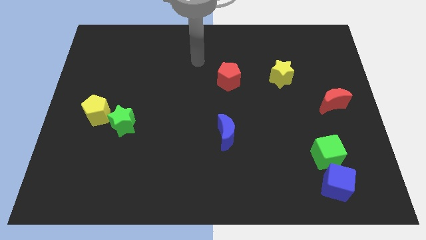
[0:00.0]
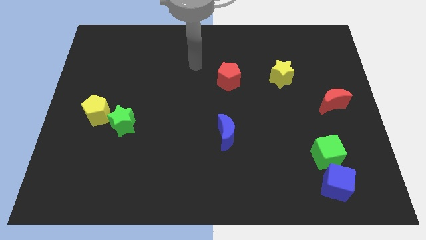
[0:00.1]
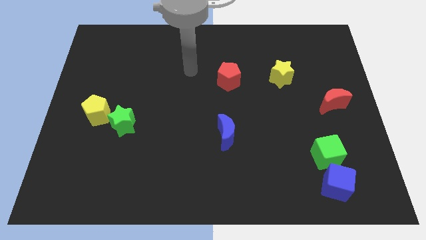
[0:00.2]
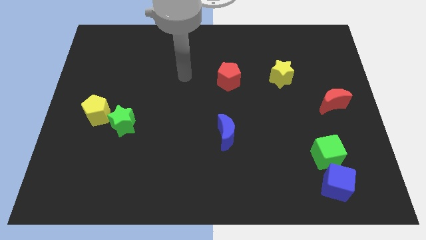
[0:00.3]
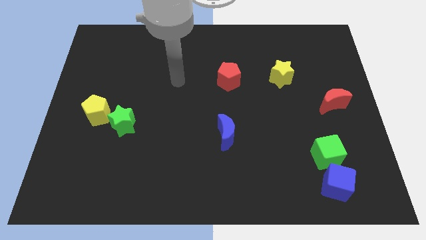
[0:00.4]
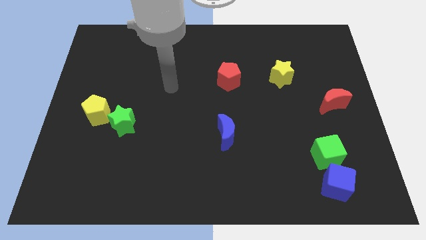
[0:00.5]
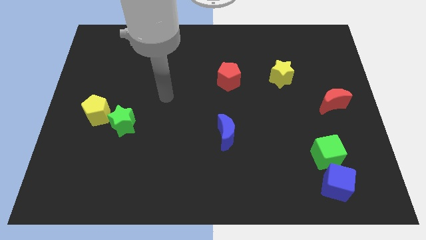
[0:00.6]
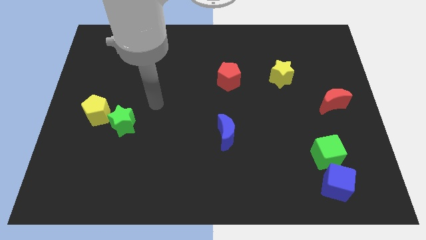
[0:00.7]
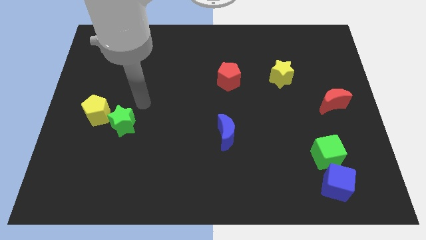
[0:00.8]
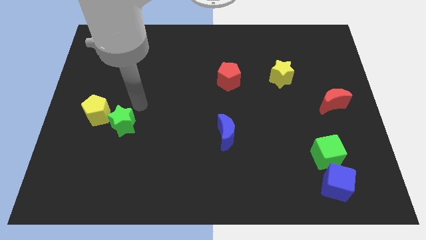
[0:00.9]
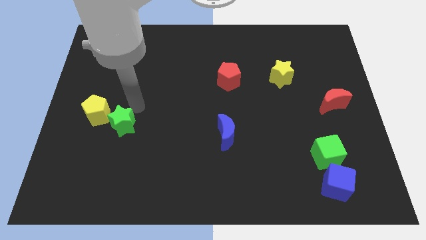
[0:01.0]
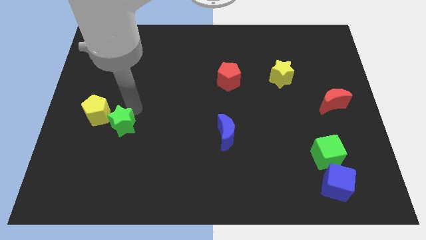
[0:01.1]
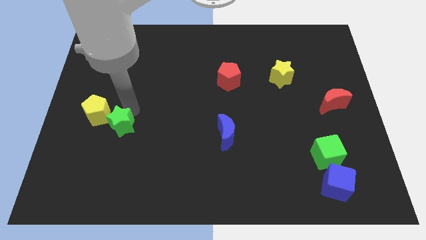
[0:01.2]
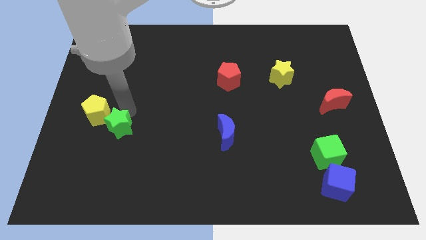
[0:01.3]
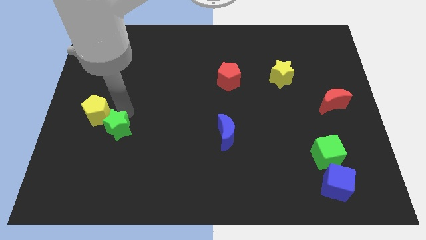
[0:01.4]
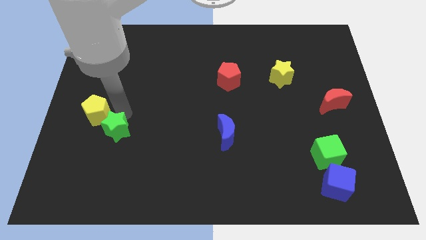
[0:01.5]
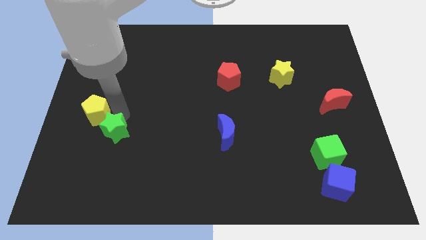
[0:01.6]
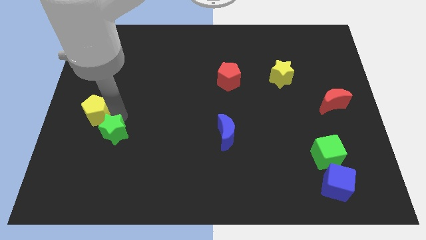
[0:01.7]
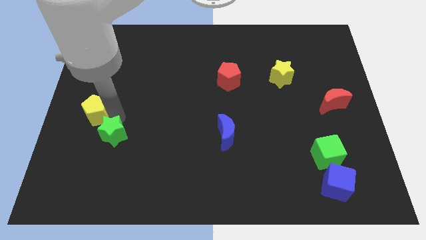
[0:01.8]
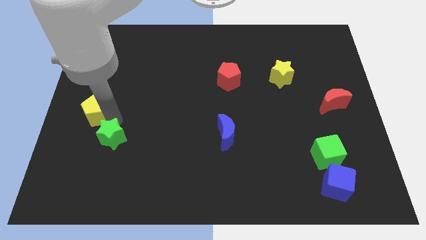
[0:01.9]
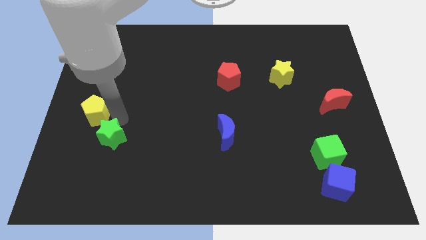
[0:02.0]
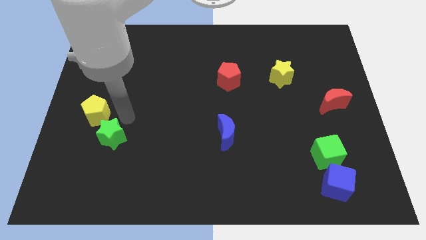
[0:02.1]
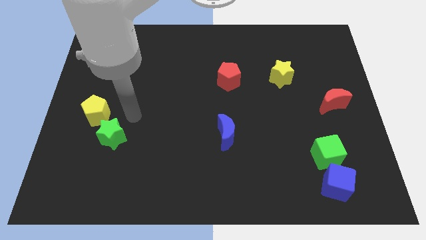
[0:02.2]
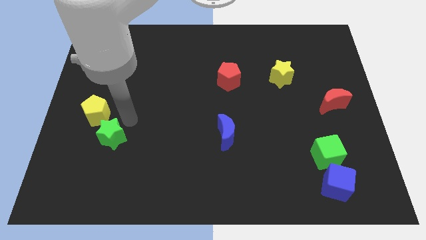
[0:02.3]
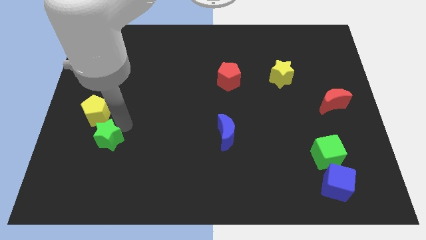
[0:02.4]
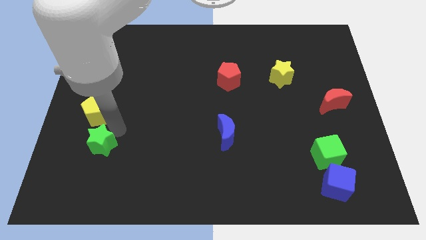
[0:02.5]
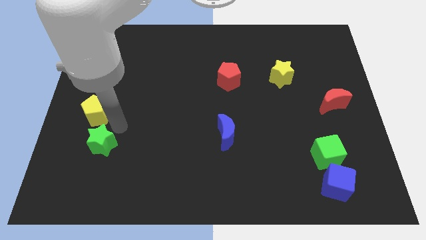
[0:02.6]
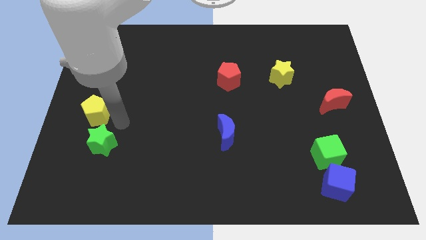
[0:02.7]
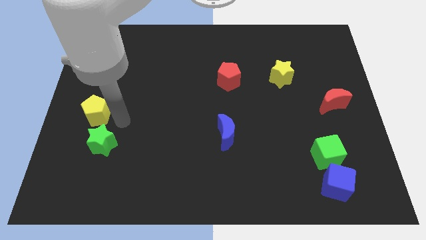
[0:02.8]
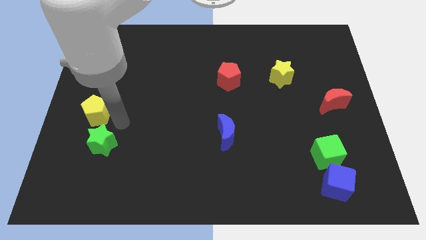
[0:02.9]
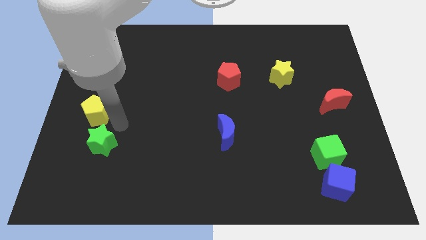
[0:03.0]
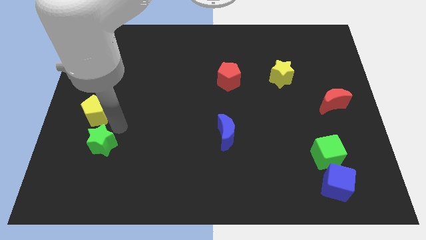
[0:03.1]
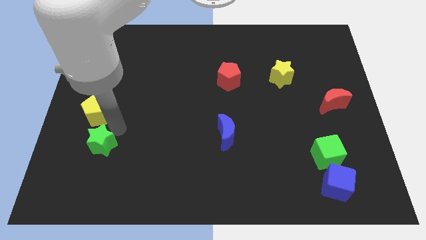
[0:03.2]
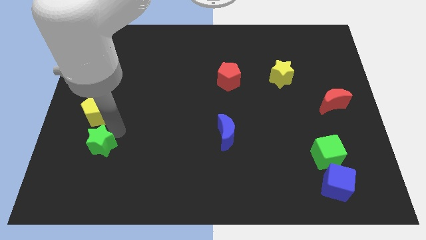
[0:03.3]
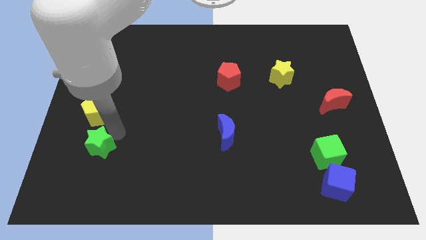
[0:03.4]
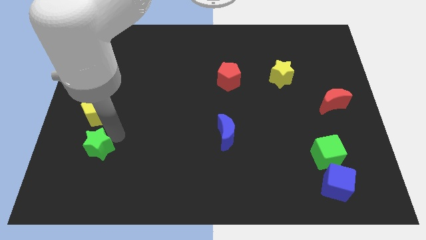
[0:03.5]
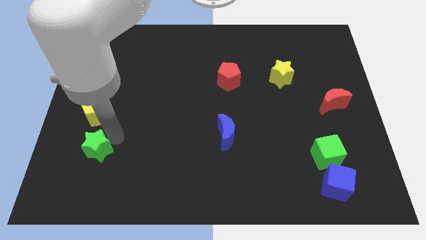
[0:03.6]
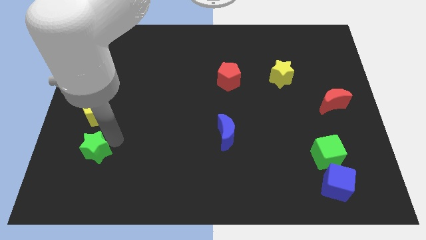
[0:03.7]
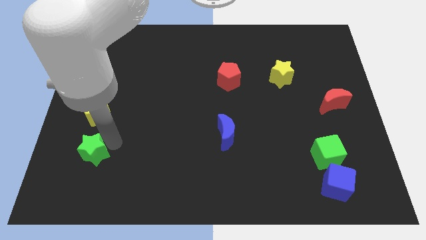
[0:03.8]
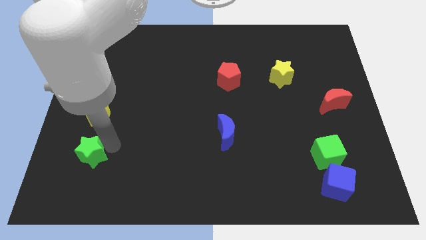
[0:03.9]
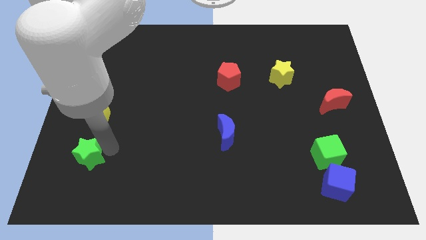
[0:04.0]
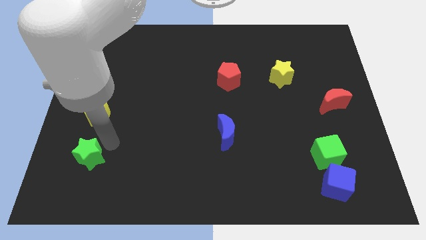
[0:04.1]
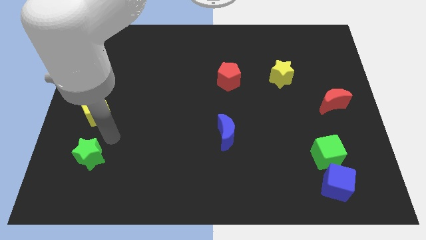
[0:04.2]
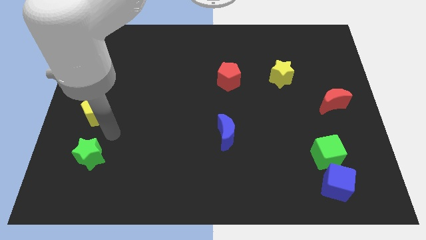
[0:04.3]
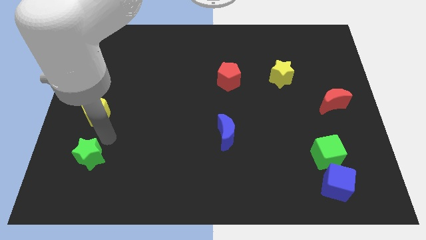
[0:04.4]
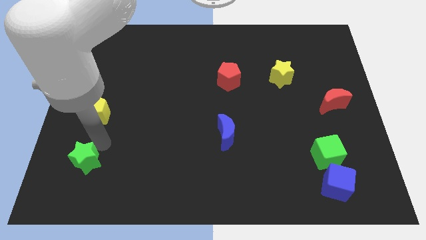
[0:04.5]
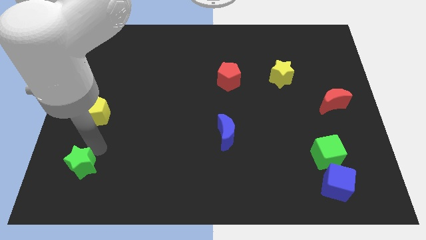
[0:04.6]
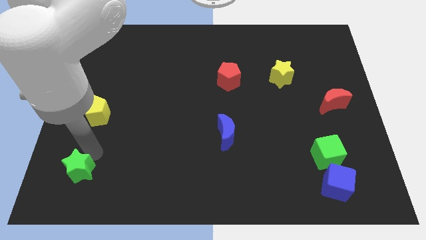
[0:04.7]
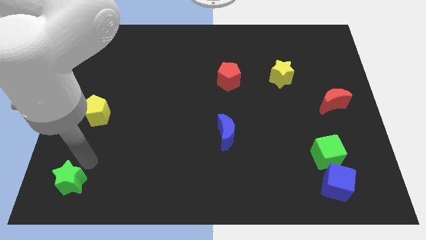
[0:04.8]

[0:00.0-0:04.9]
slide the green star to the bottom left of the board

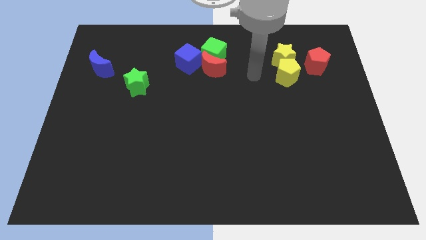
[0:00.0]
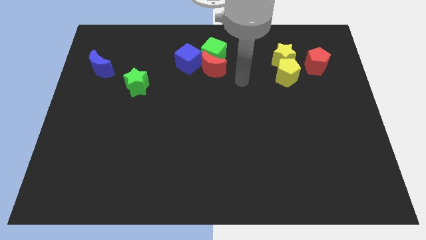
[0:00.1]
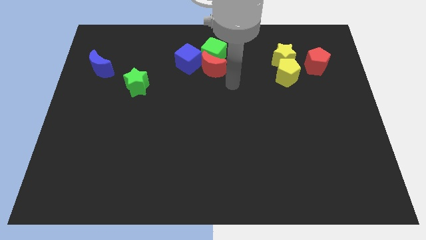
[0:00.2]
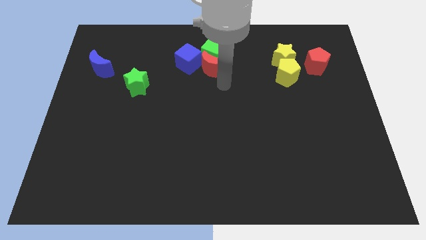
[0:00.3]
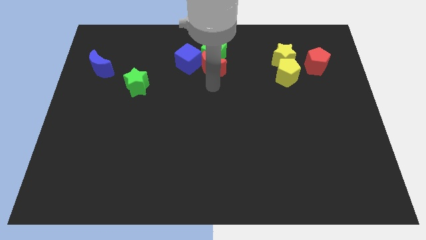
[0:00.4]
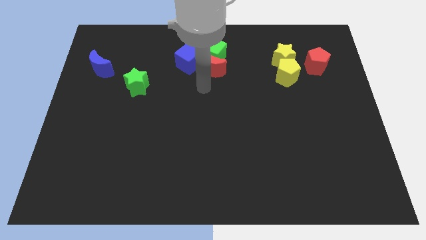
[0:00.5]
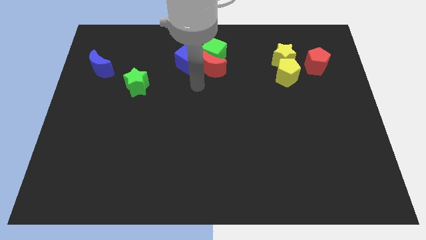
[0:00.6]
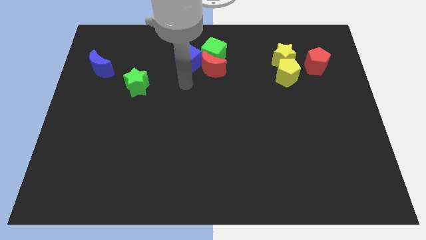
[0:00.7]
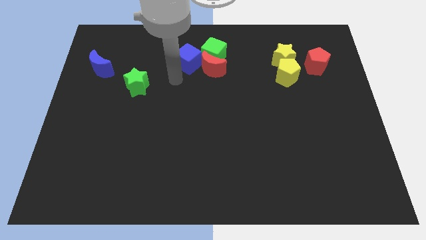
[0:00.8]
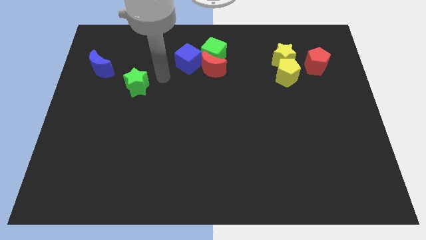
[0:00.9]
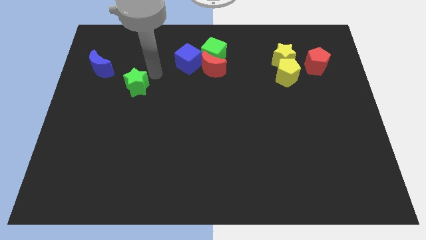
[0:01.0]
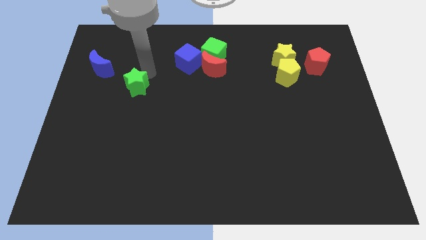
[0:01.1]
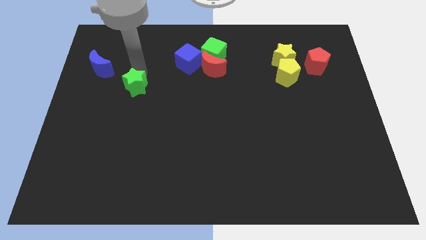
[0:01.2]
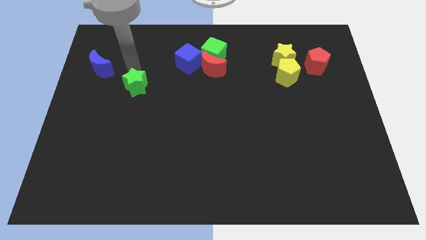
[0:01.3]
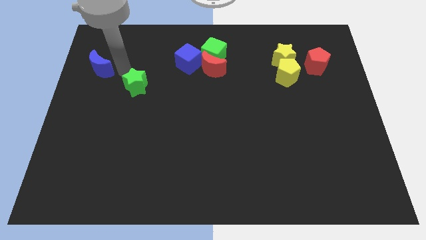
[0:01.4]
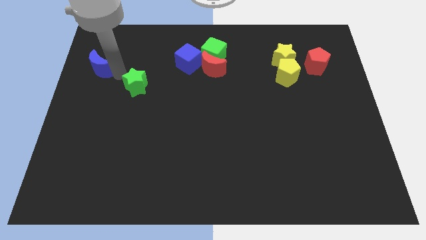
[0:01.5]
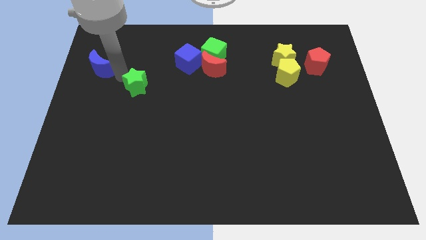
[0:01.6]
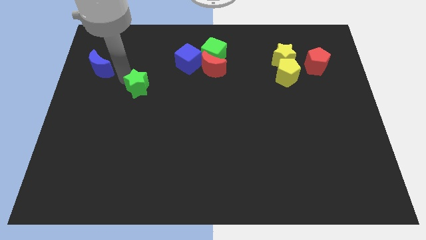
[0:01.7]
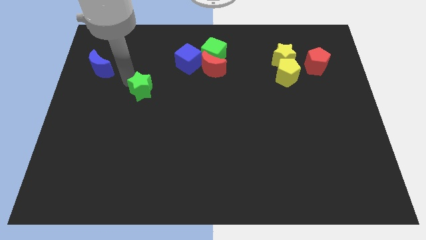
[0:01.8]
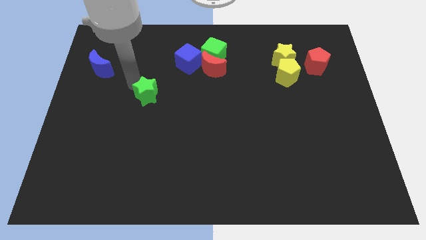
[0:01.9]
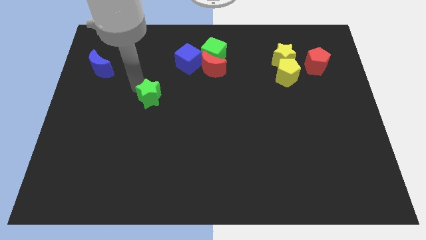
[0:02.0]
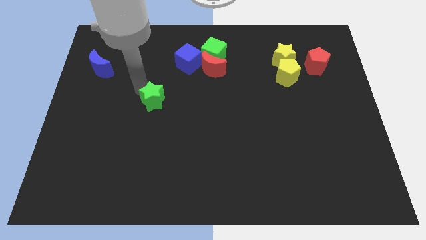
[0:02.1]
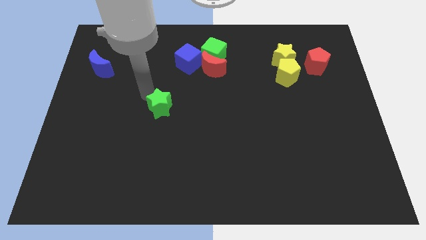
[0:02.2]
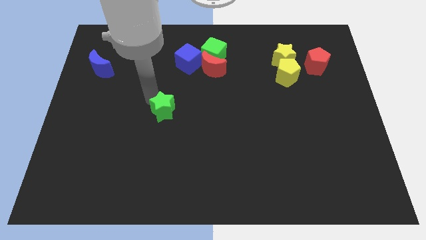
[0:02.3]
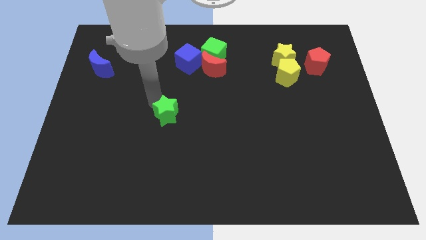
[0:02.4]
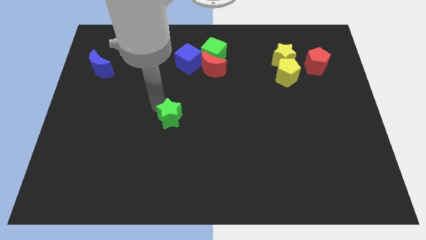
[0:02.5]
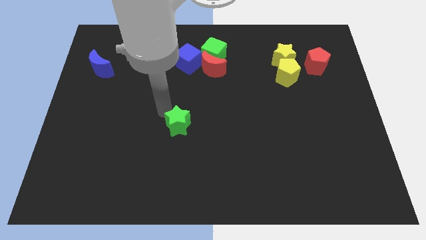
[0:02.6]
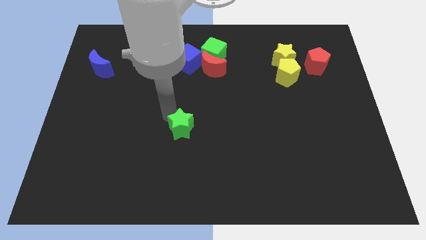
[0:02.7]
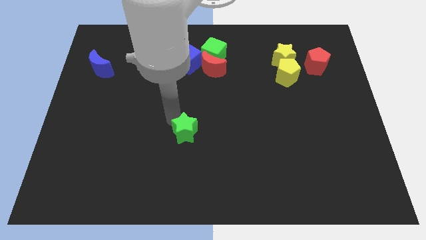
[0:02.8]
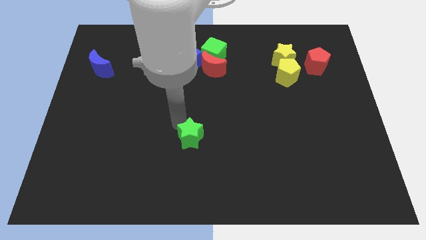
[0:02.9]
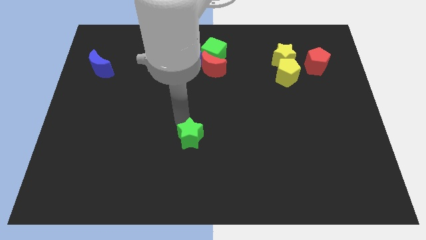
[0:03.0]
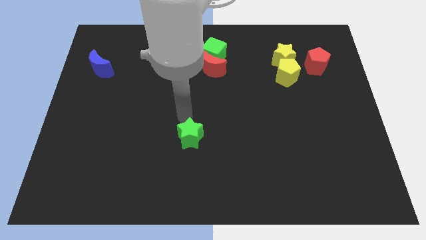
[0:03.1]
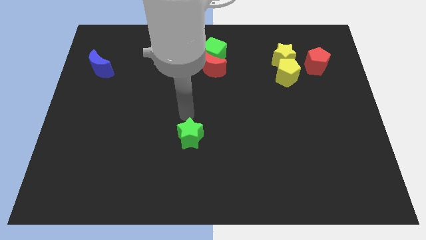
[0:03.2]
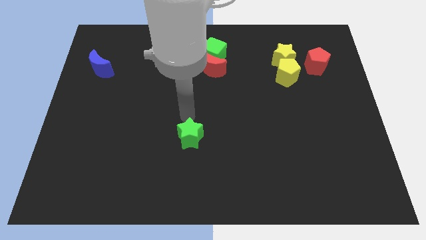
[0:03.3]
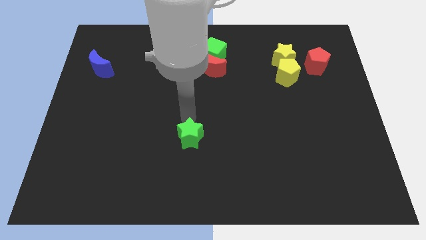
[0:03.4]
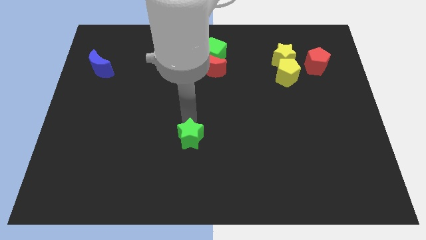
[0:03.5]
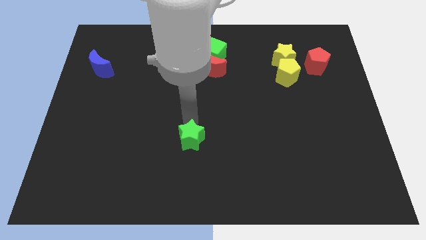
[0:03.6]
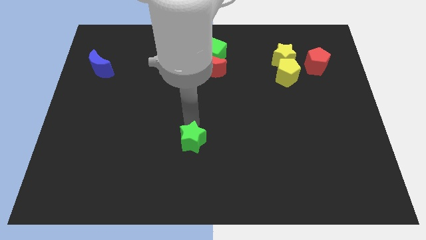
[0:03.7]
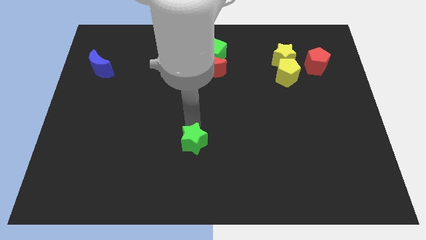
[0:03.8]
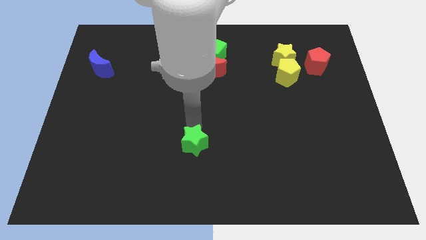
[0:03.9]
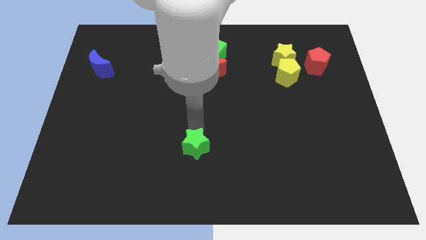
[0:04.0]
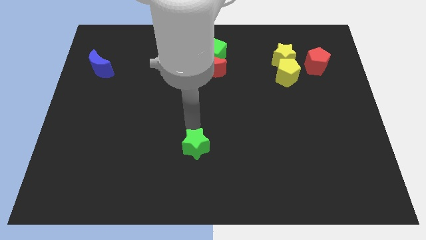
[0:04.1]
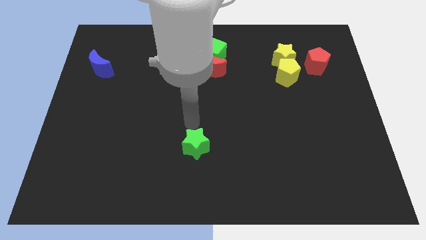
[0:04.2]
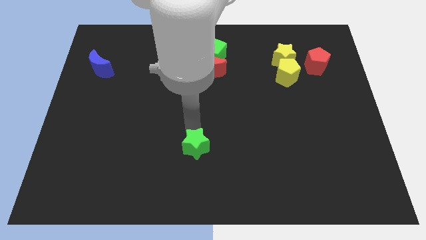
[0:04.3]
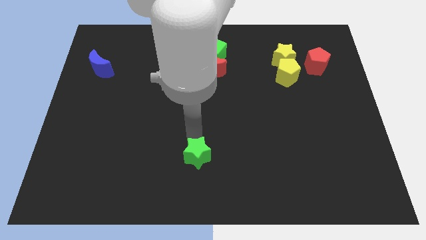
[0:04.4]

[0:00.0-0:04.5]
move the green star to the bottom side
